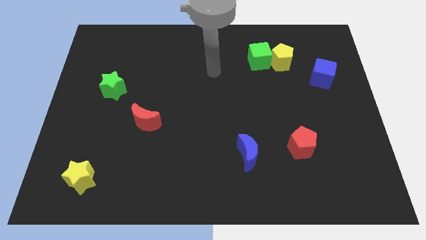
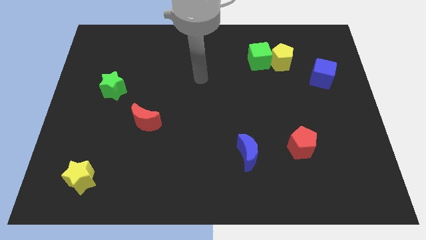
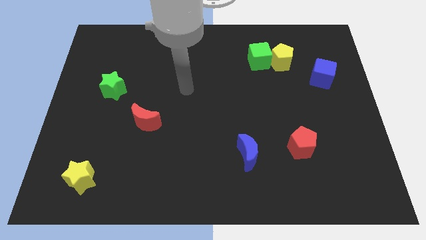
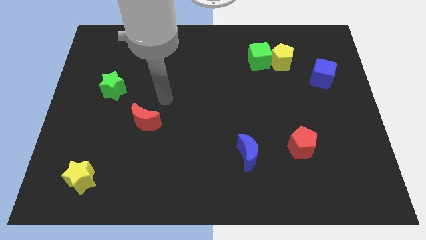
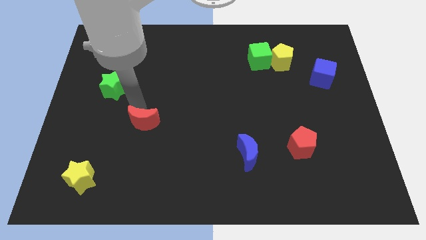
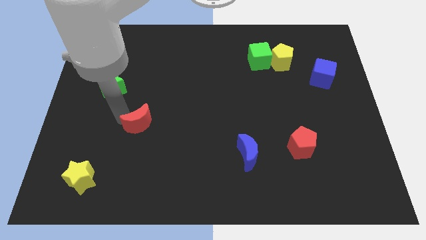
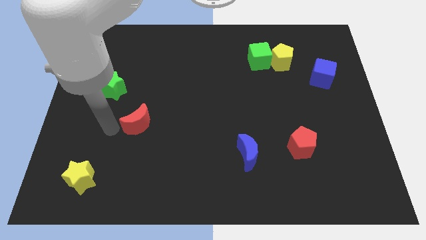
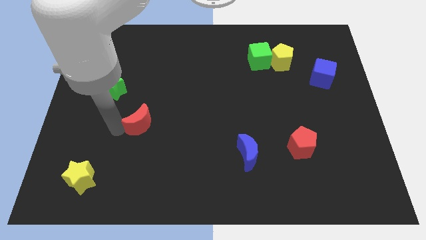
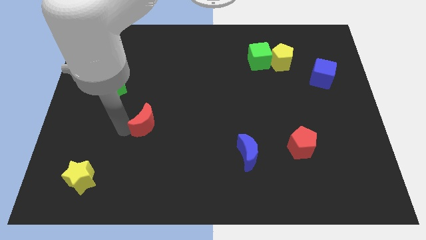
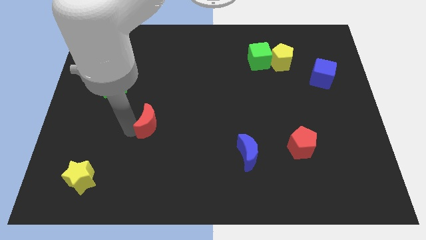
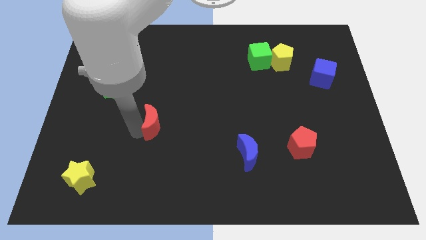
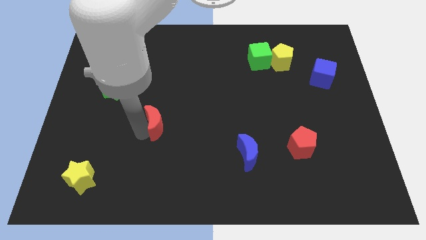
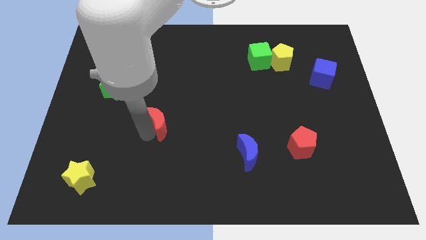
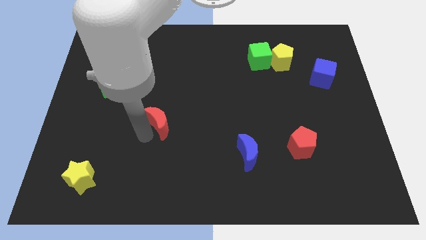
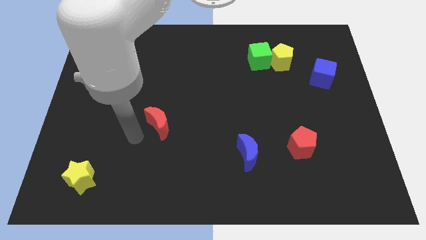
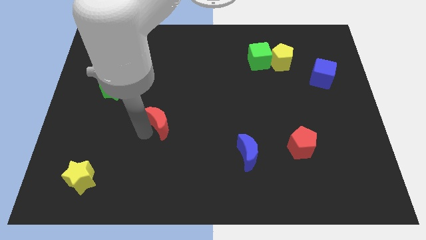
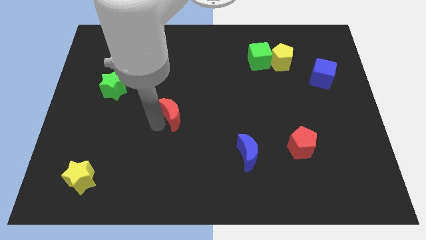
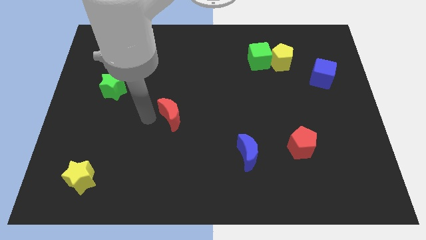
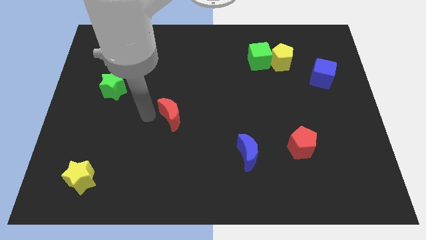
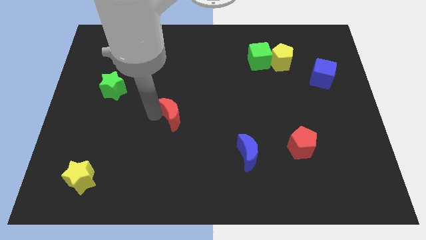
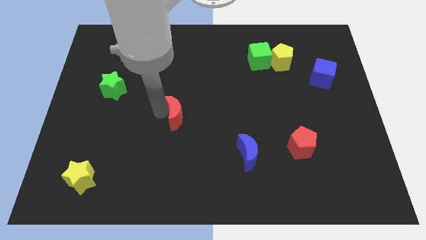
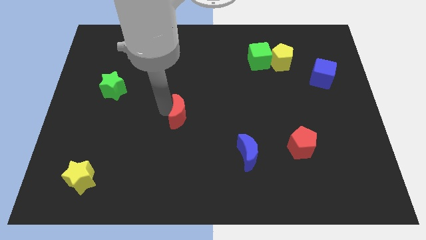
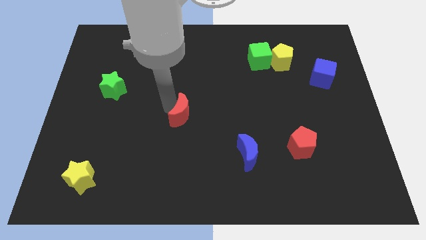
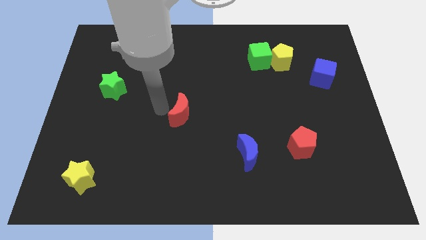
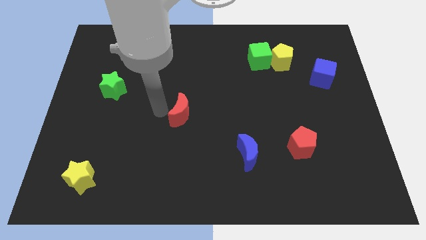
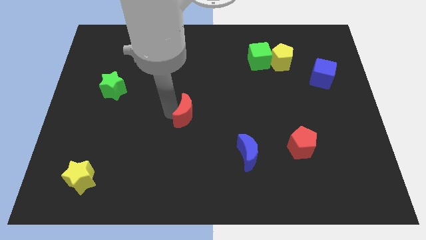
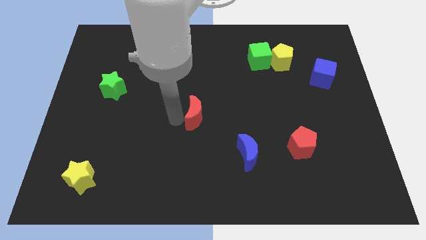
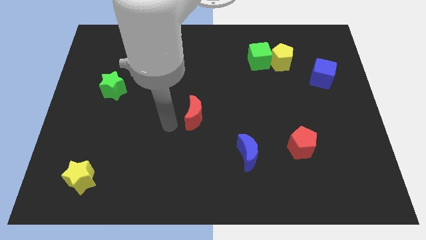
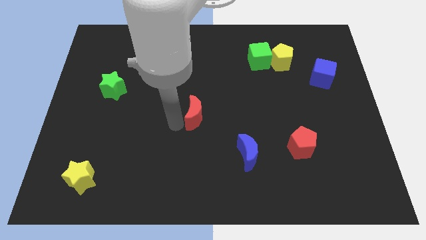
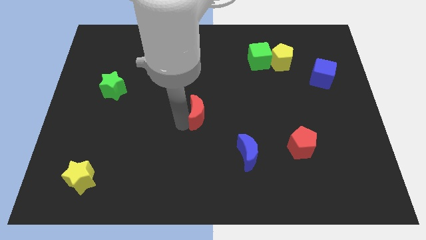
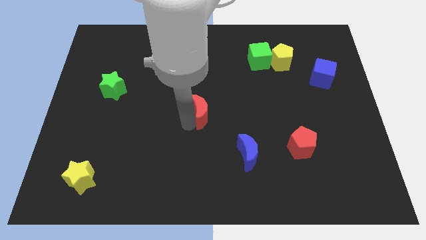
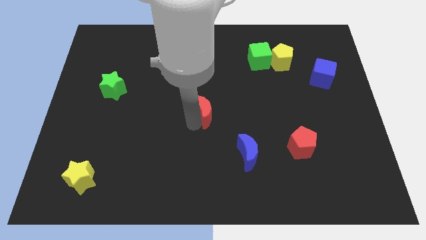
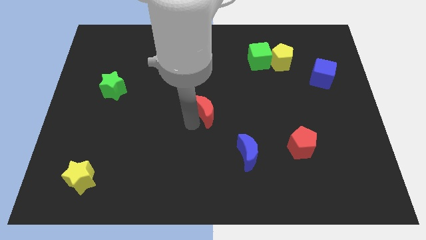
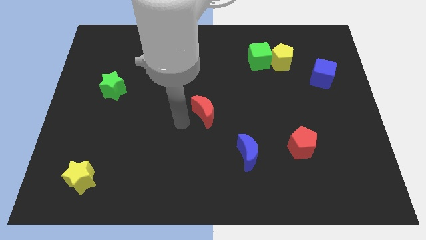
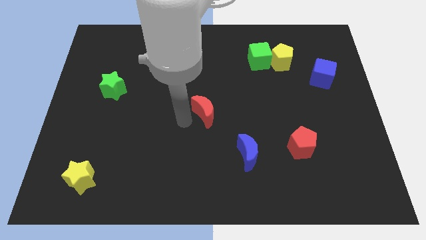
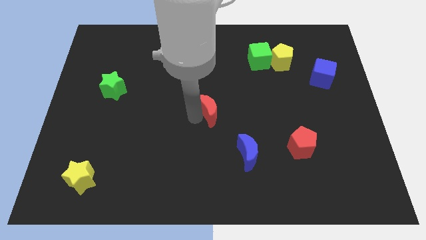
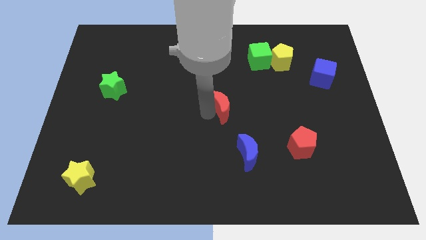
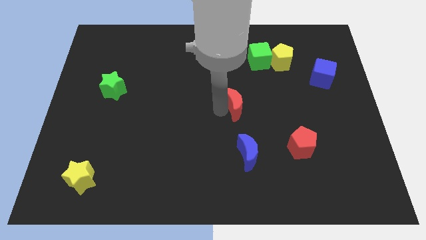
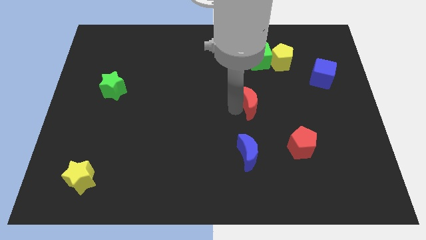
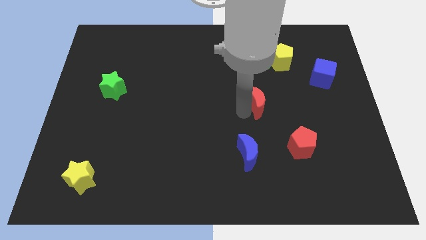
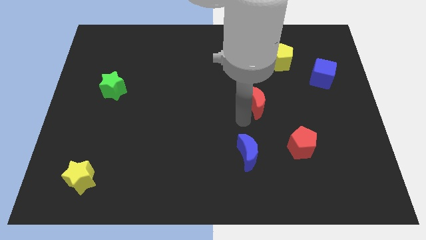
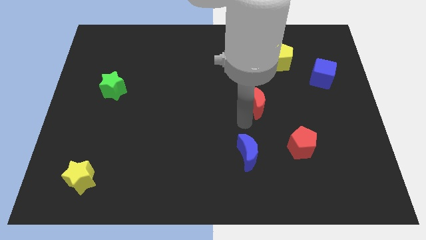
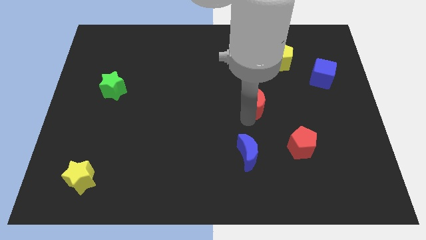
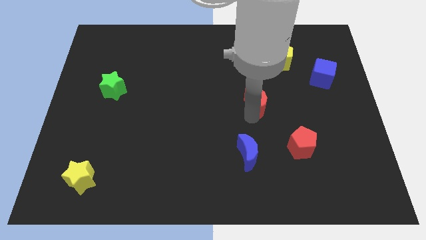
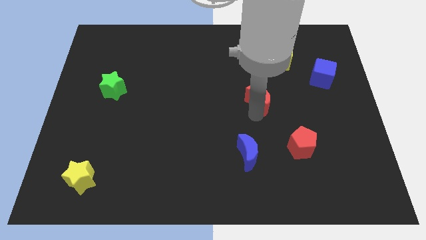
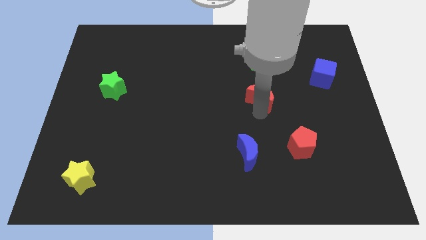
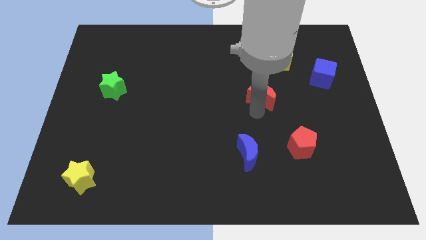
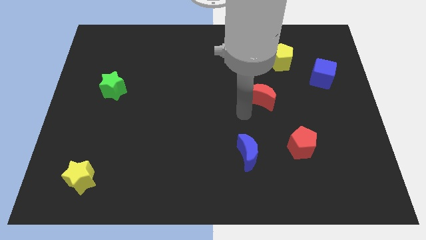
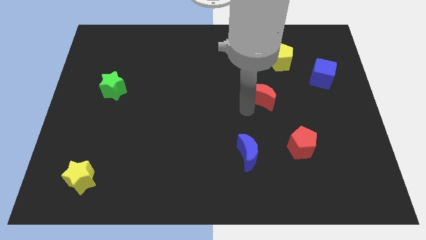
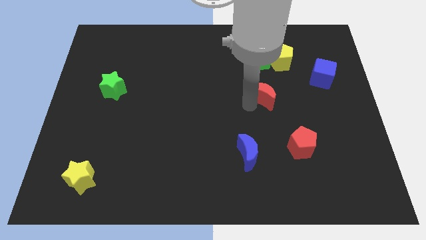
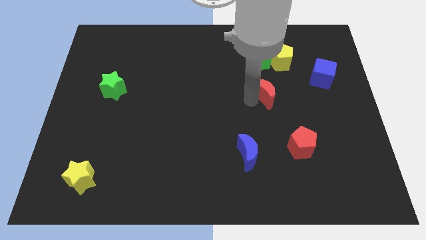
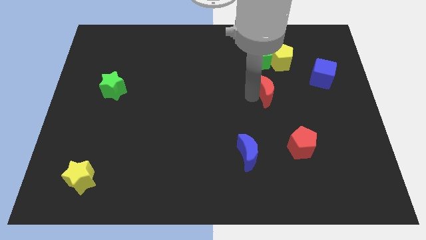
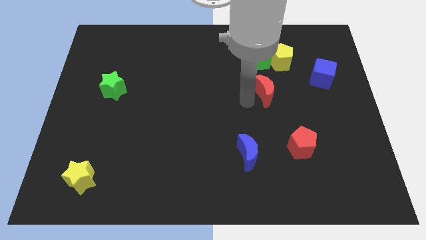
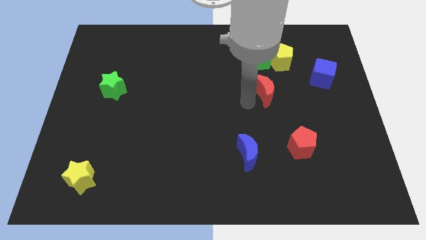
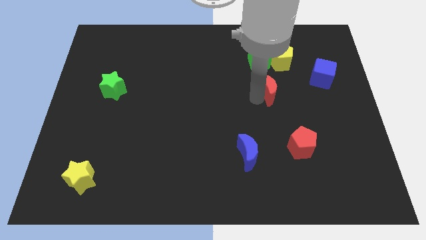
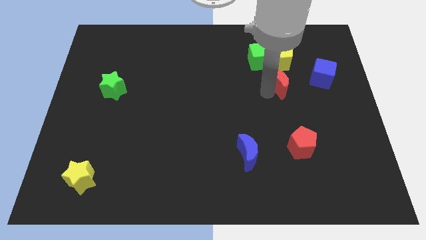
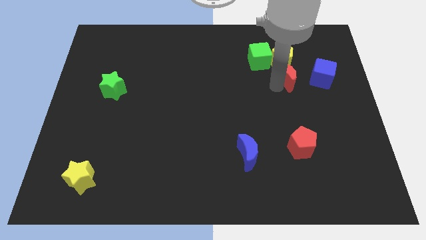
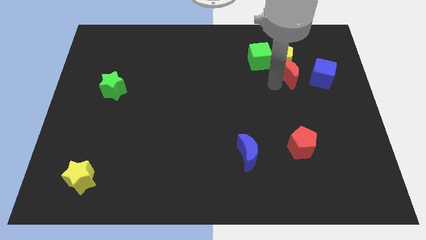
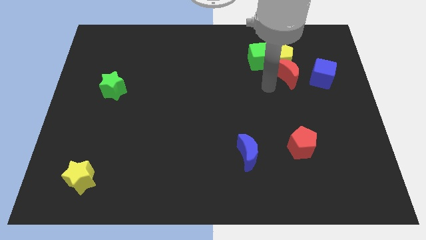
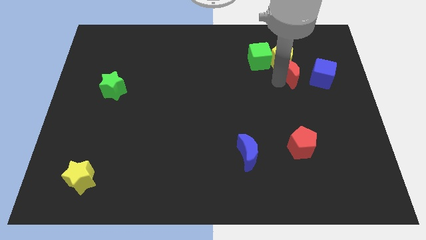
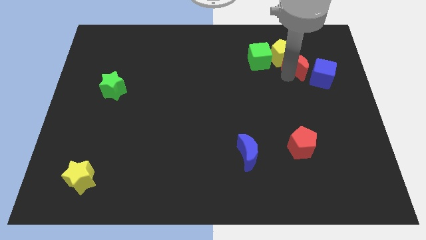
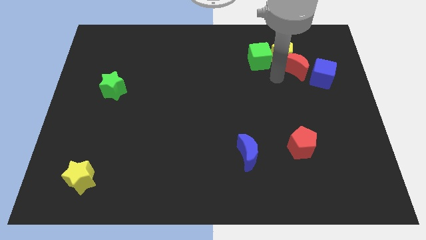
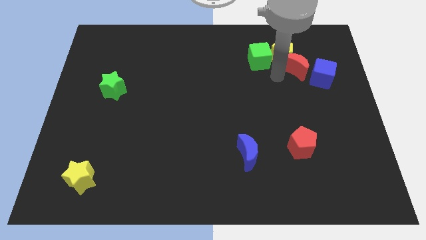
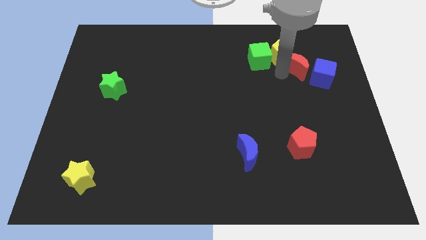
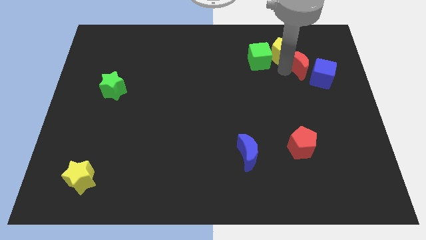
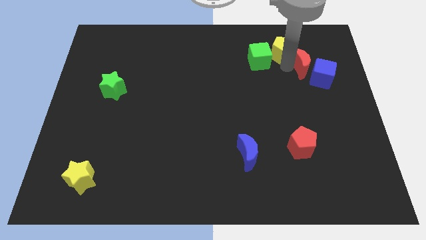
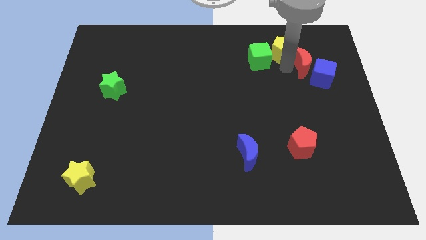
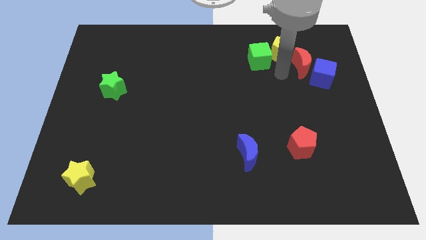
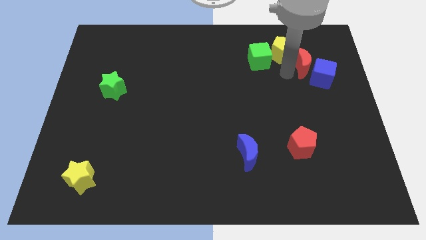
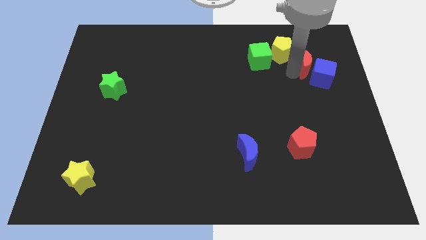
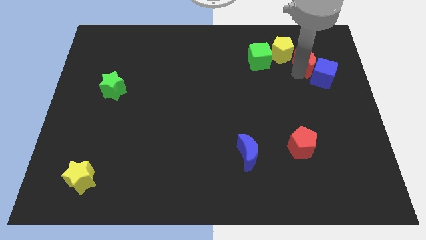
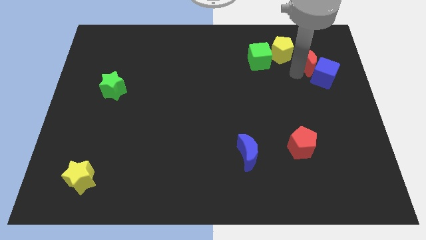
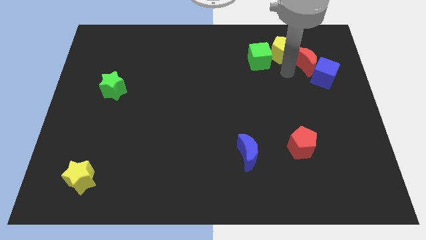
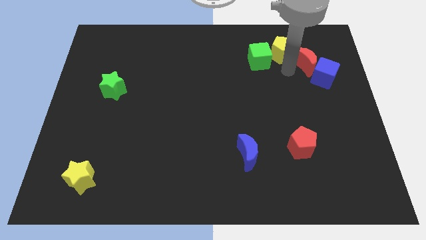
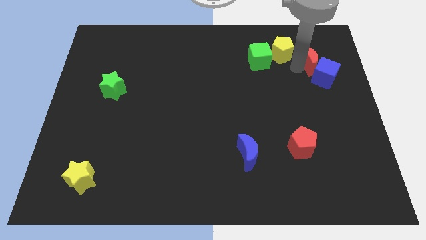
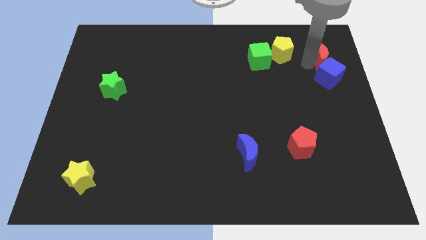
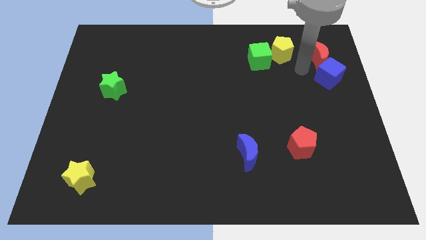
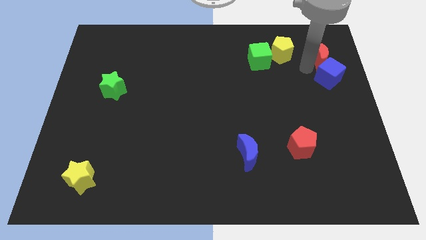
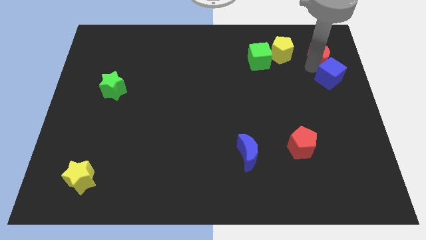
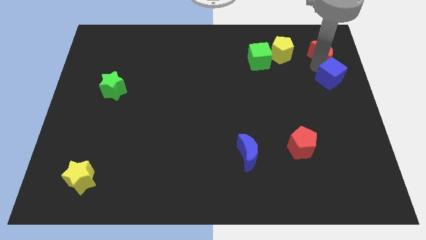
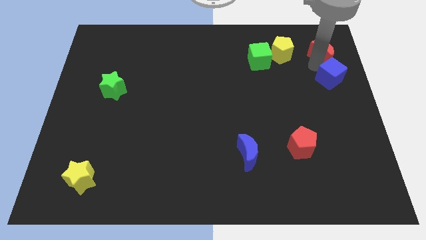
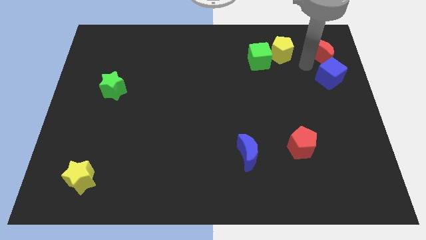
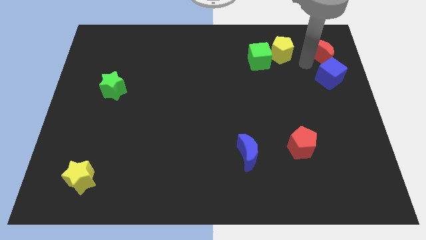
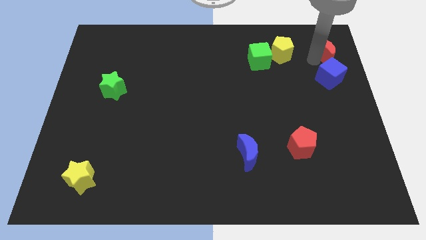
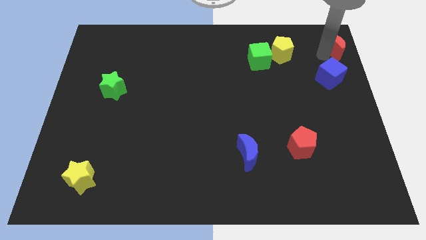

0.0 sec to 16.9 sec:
push the red moon to the top right

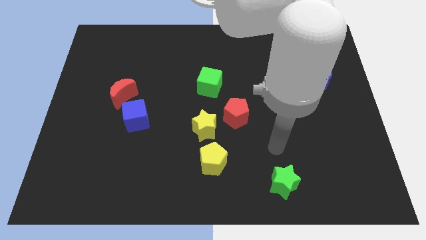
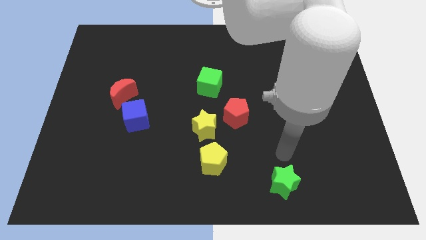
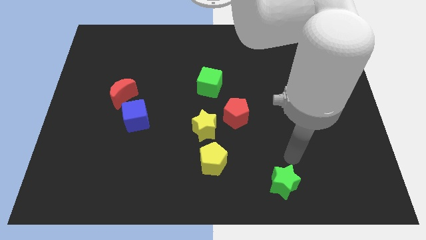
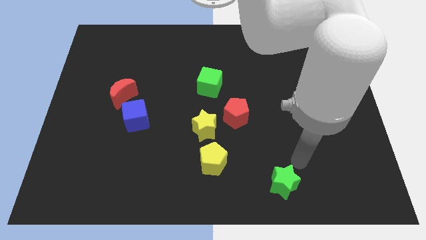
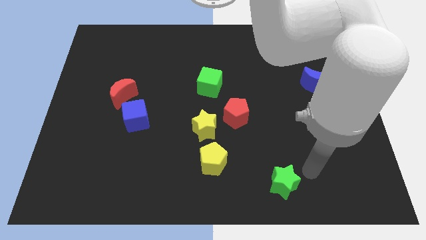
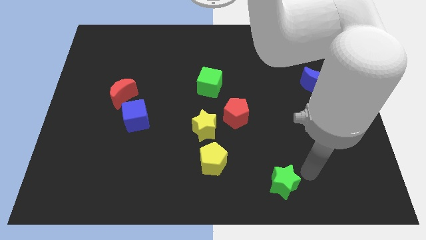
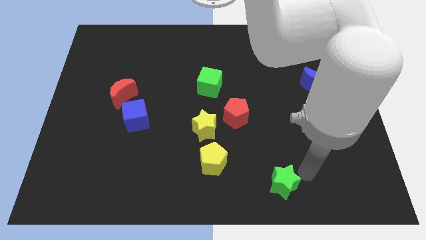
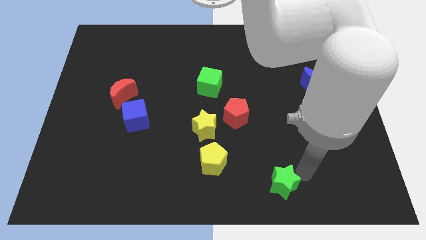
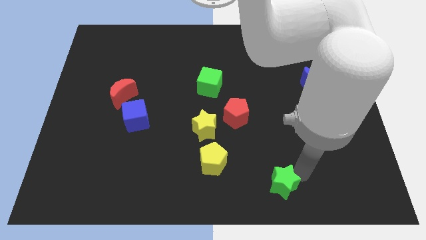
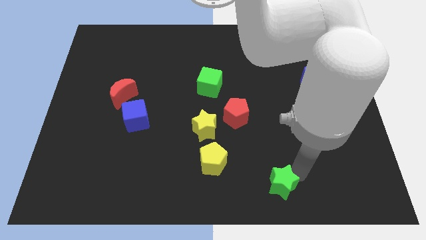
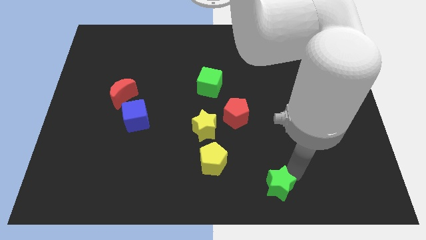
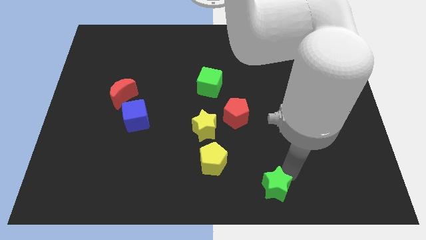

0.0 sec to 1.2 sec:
move the green star to the bottom side
